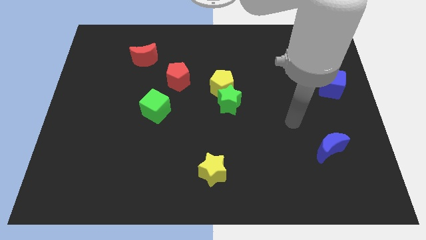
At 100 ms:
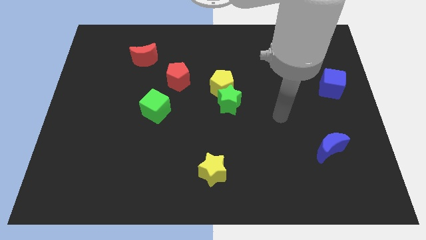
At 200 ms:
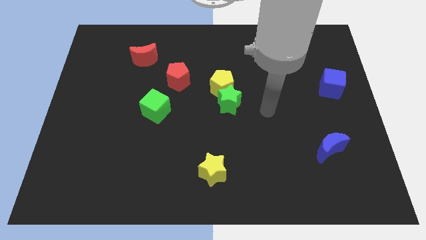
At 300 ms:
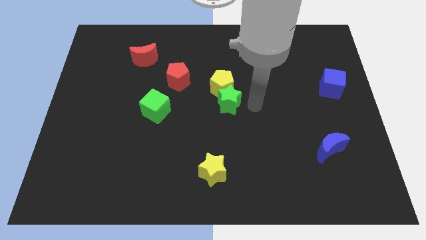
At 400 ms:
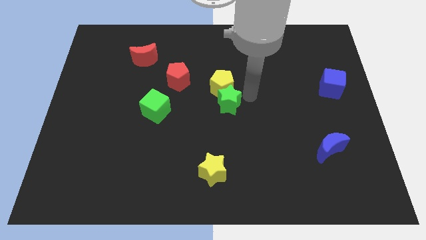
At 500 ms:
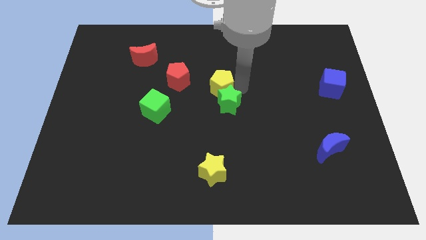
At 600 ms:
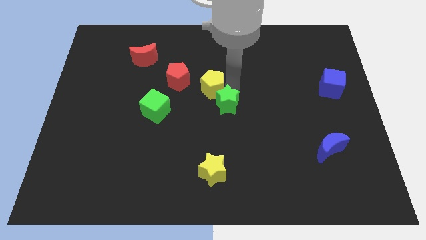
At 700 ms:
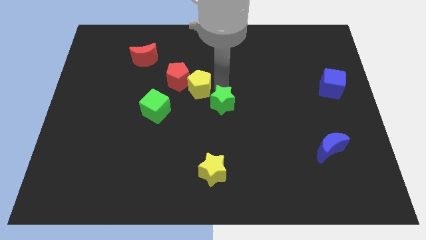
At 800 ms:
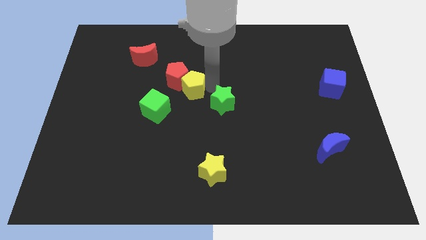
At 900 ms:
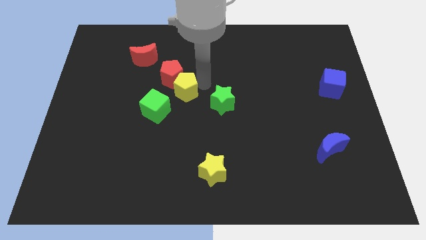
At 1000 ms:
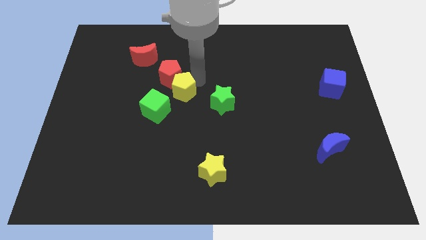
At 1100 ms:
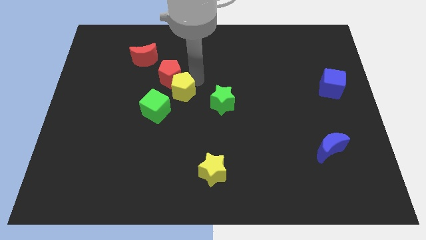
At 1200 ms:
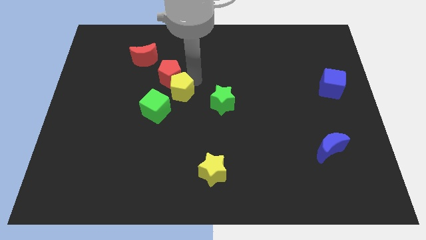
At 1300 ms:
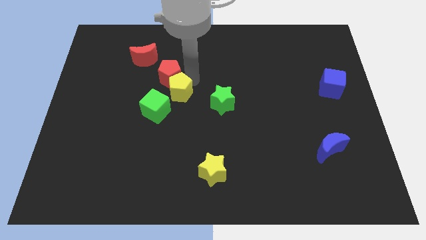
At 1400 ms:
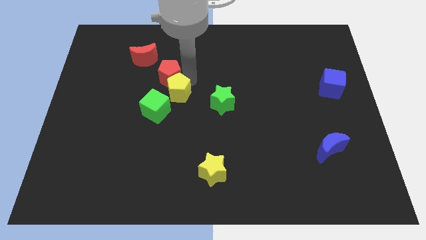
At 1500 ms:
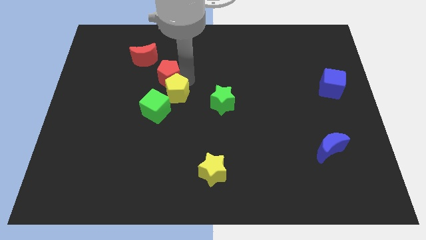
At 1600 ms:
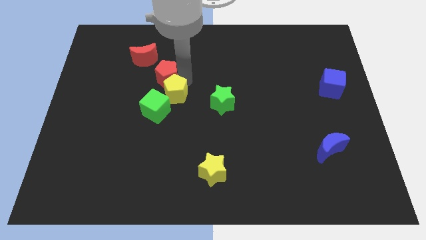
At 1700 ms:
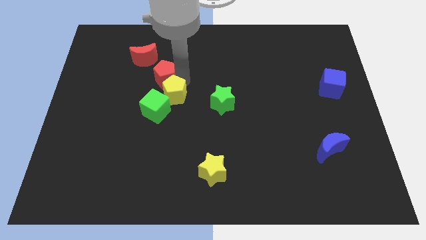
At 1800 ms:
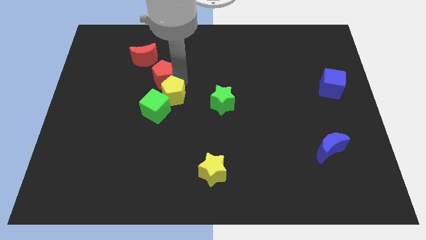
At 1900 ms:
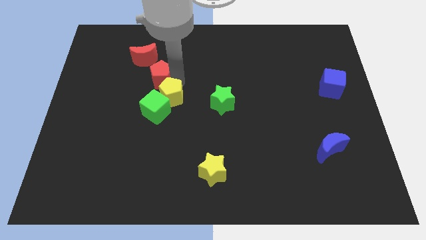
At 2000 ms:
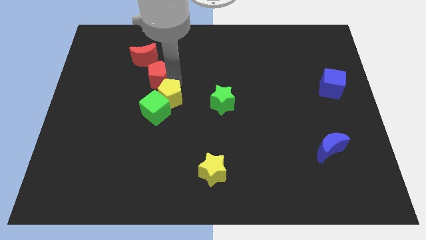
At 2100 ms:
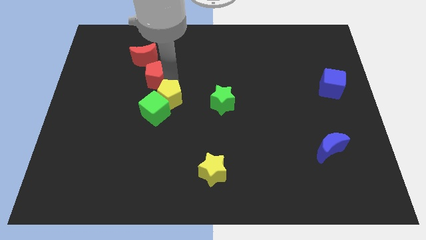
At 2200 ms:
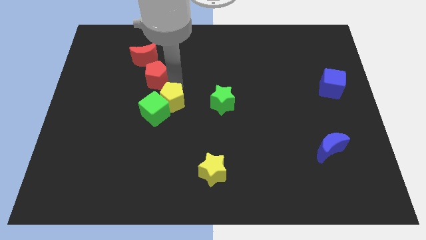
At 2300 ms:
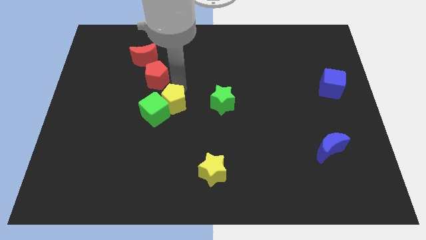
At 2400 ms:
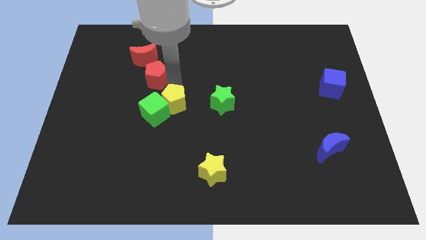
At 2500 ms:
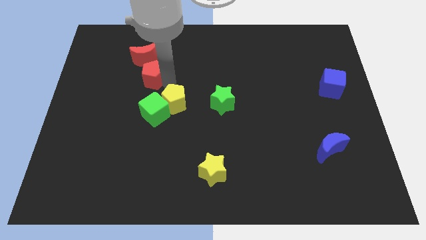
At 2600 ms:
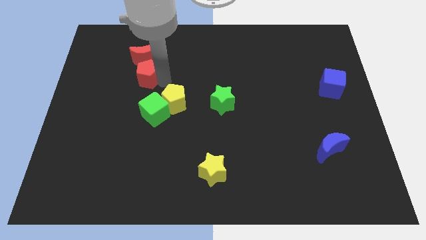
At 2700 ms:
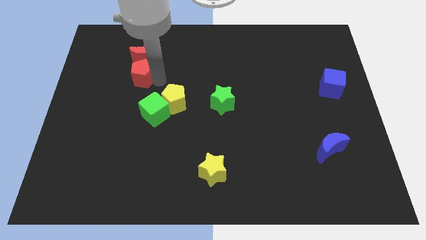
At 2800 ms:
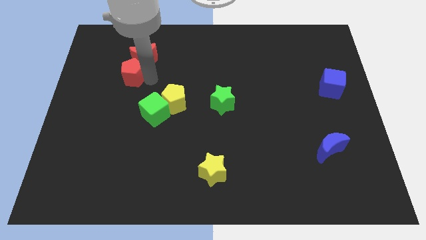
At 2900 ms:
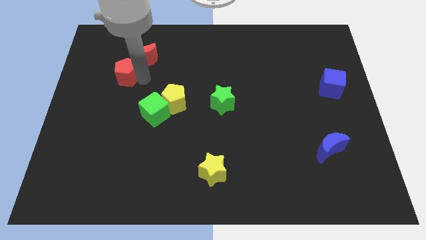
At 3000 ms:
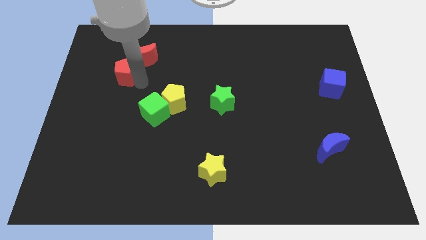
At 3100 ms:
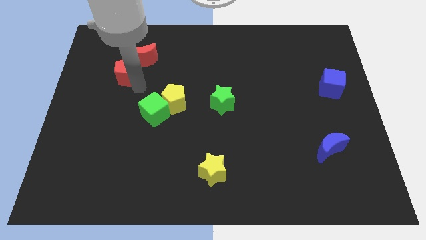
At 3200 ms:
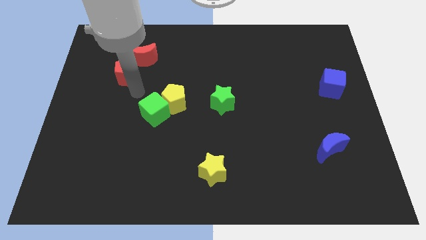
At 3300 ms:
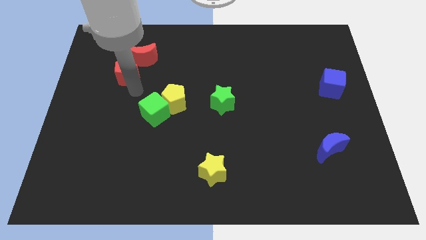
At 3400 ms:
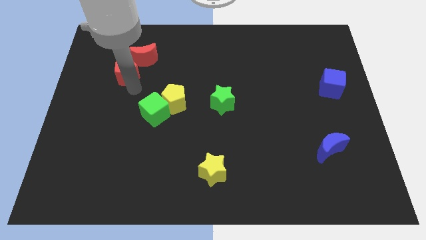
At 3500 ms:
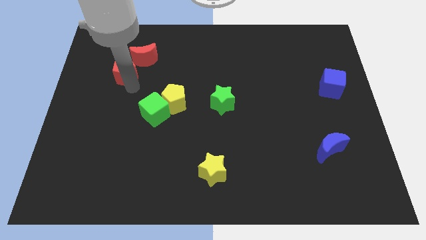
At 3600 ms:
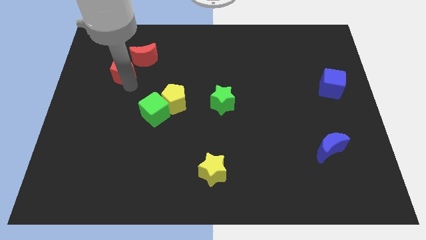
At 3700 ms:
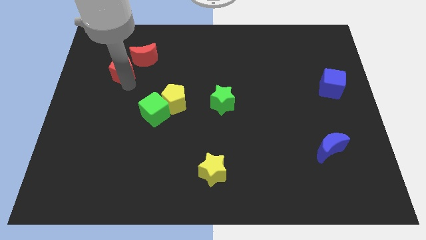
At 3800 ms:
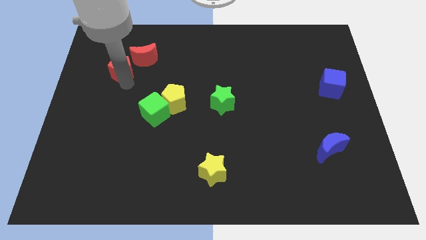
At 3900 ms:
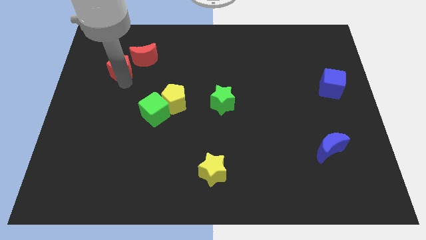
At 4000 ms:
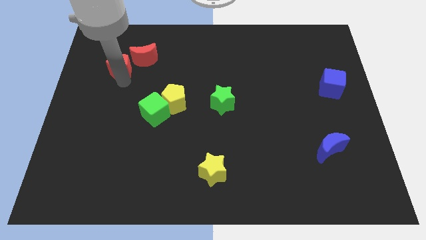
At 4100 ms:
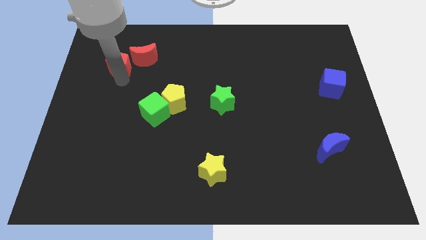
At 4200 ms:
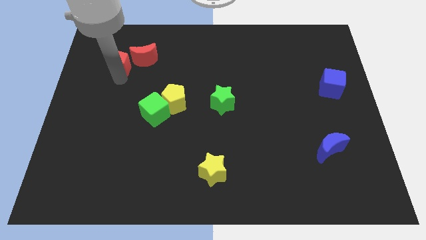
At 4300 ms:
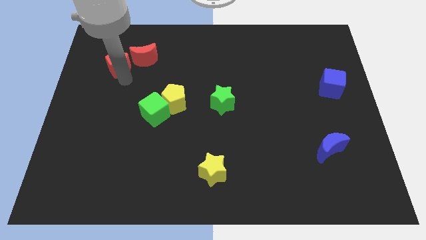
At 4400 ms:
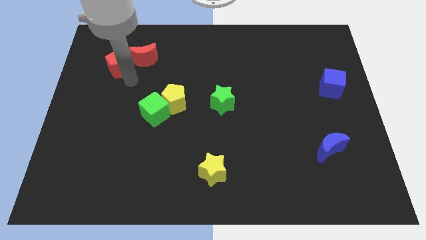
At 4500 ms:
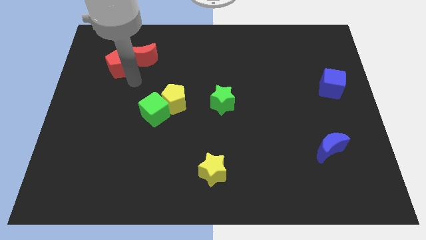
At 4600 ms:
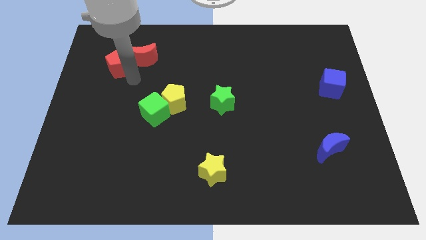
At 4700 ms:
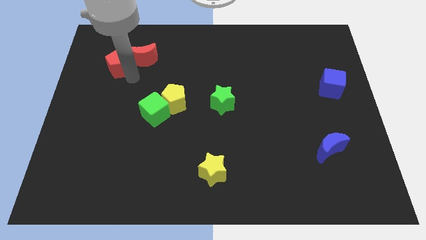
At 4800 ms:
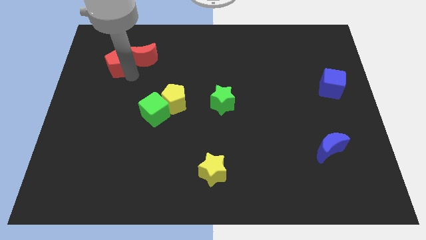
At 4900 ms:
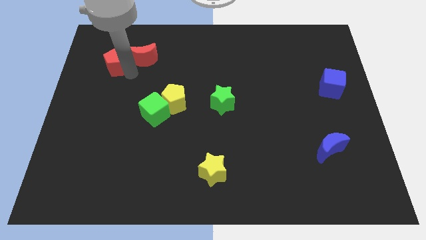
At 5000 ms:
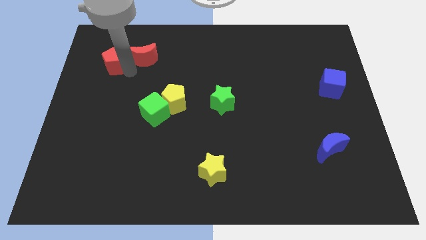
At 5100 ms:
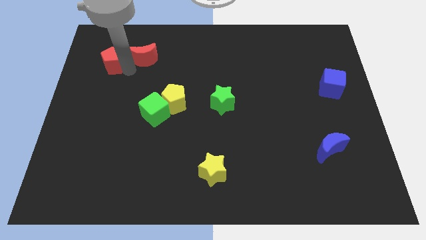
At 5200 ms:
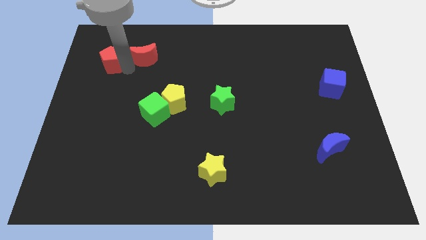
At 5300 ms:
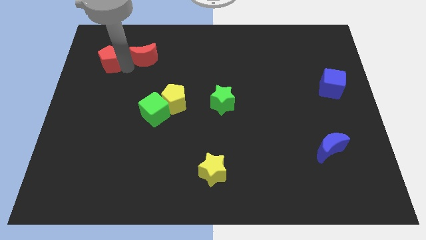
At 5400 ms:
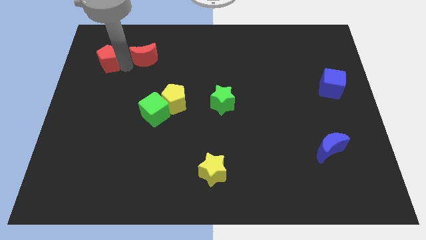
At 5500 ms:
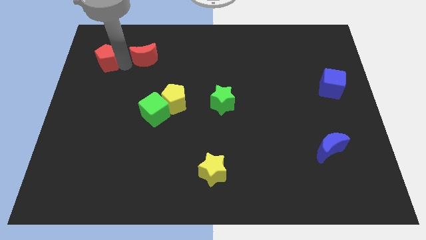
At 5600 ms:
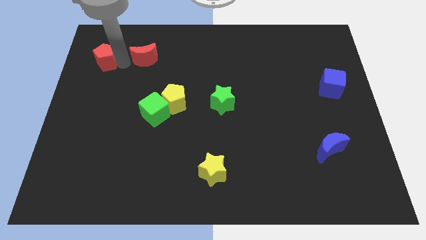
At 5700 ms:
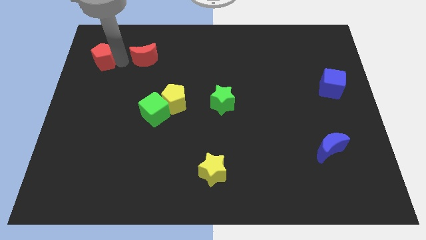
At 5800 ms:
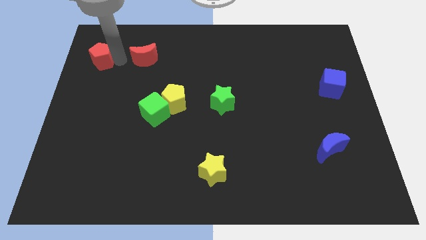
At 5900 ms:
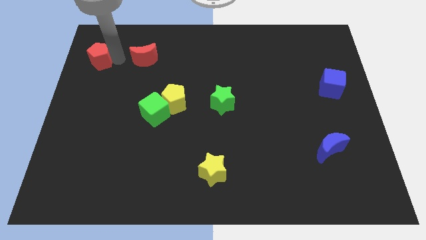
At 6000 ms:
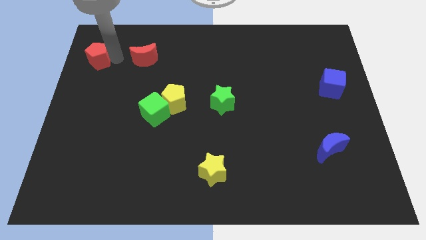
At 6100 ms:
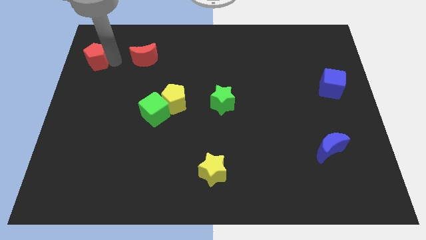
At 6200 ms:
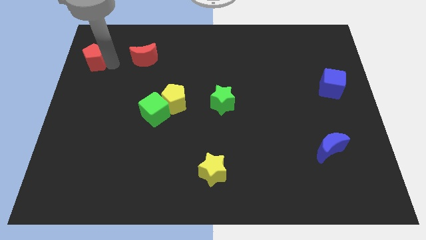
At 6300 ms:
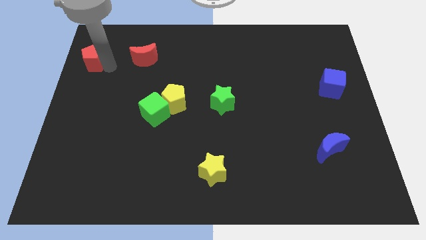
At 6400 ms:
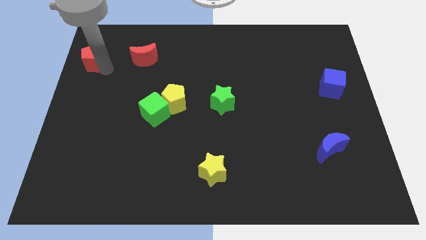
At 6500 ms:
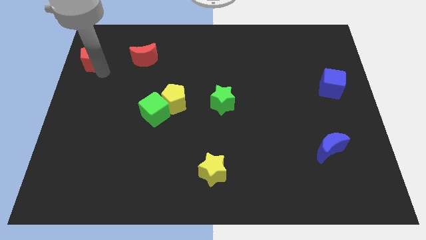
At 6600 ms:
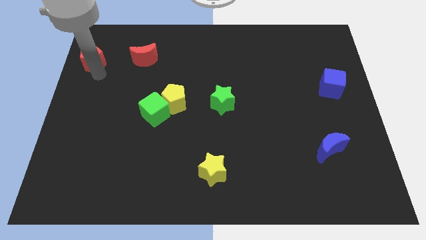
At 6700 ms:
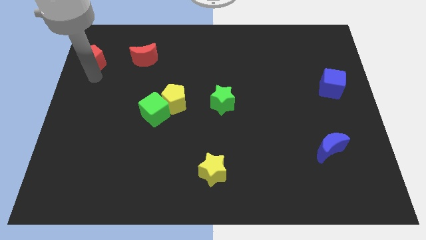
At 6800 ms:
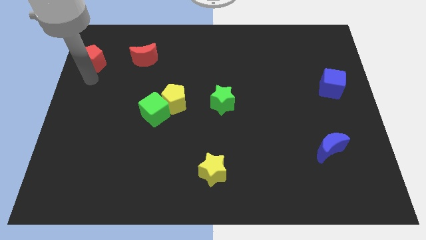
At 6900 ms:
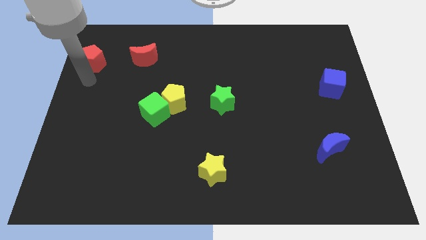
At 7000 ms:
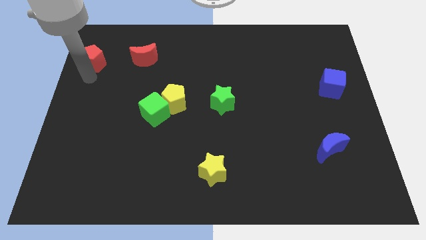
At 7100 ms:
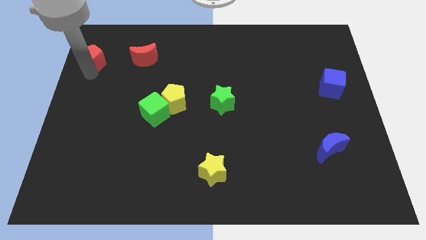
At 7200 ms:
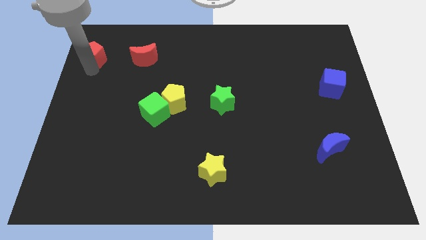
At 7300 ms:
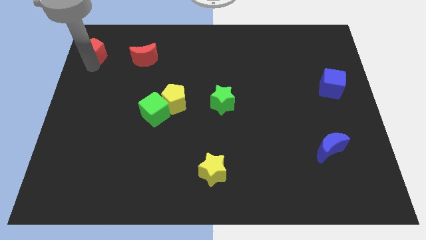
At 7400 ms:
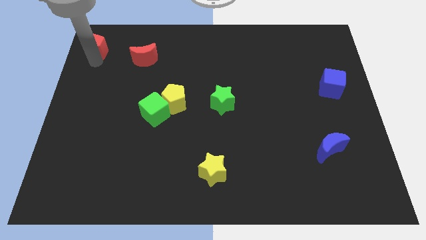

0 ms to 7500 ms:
push the red pentagon to the top left corner
